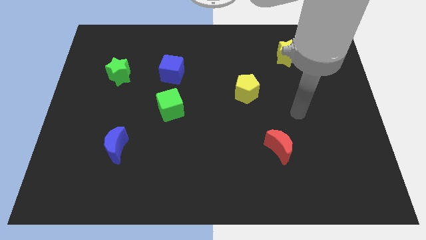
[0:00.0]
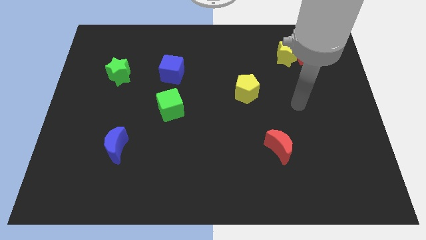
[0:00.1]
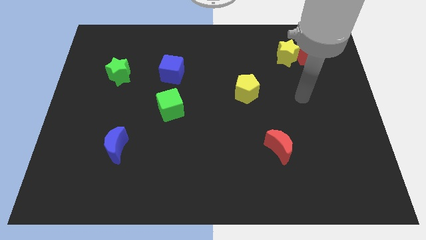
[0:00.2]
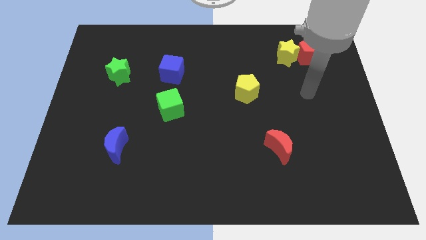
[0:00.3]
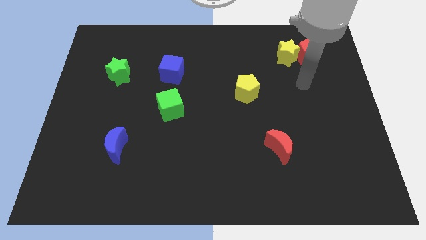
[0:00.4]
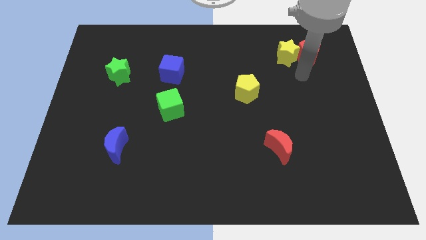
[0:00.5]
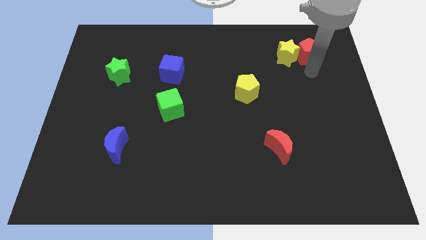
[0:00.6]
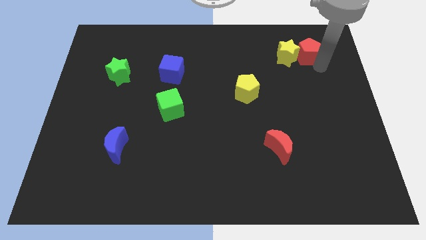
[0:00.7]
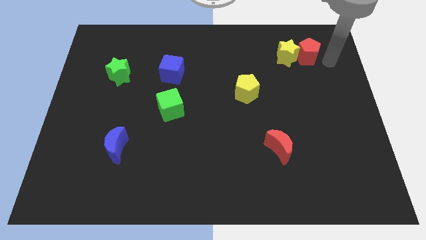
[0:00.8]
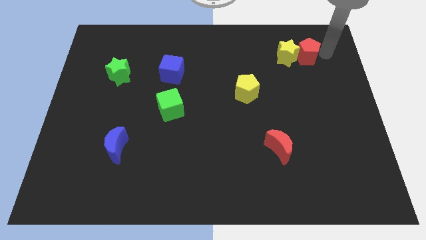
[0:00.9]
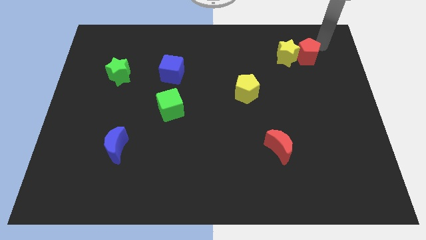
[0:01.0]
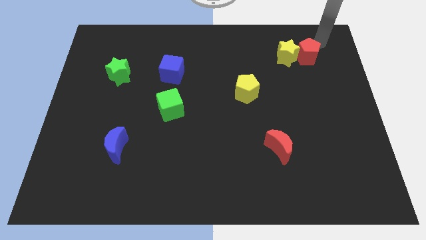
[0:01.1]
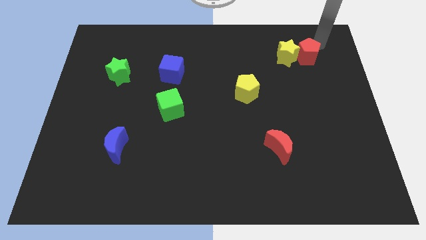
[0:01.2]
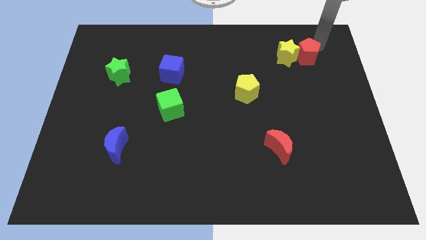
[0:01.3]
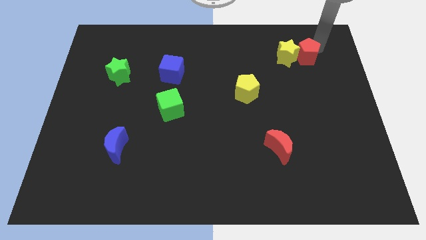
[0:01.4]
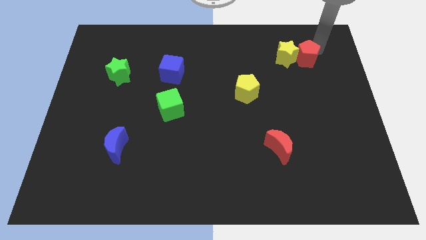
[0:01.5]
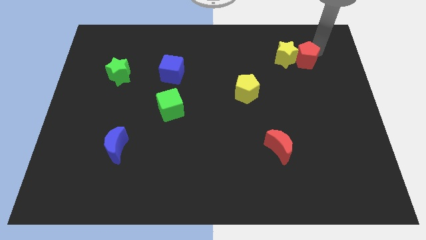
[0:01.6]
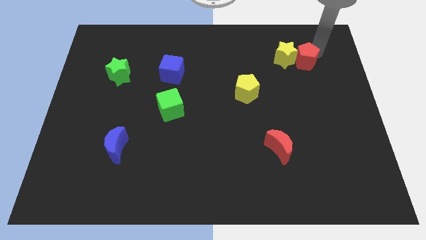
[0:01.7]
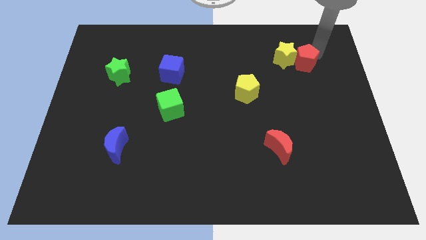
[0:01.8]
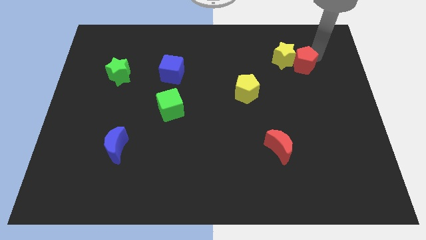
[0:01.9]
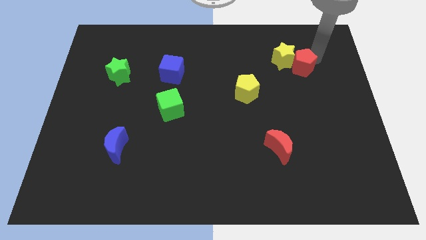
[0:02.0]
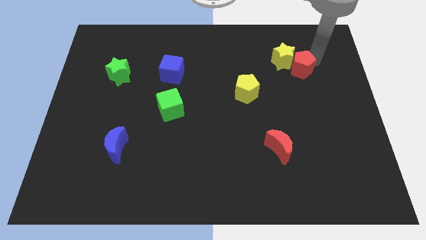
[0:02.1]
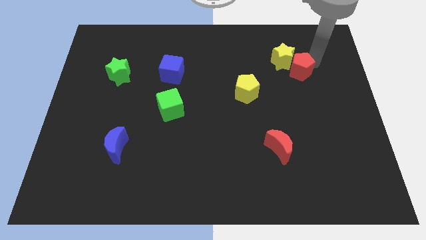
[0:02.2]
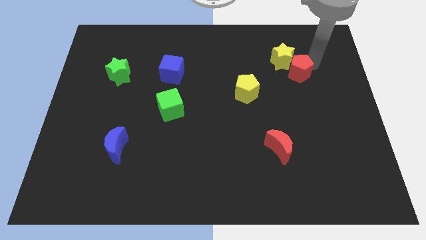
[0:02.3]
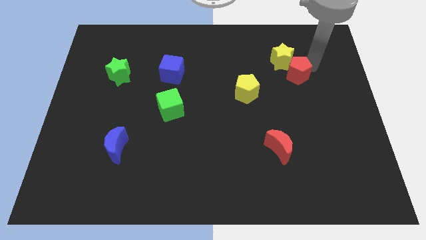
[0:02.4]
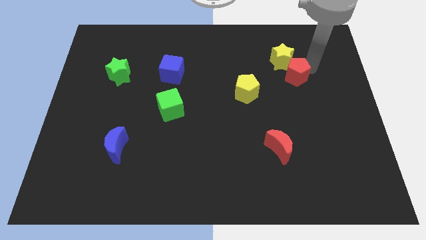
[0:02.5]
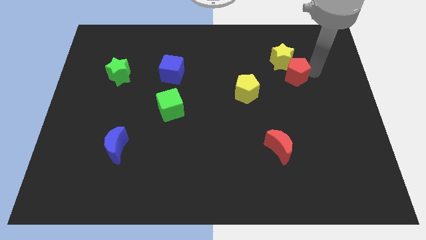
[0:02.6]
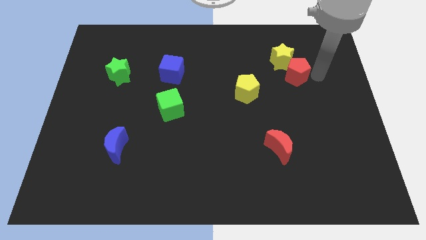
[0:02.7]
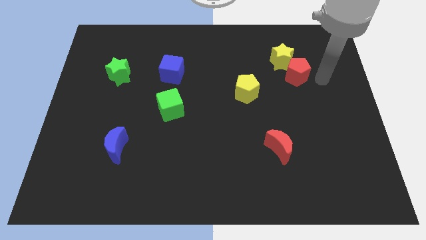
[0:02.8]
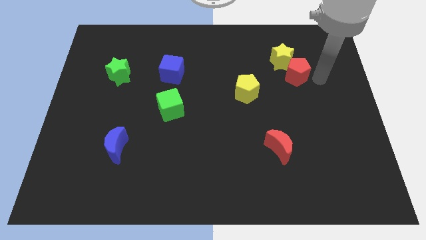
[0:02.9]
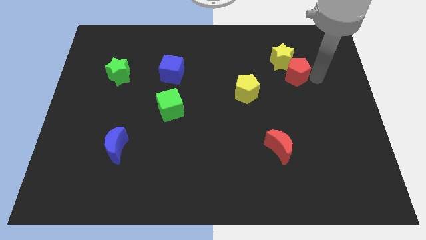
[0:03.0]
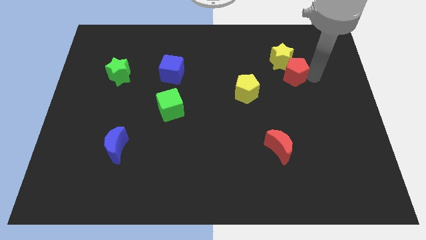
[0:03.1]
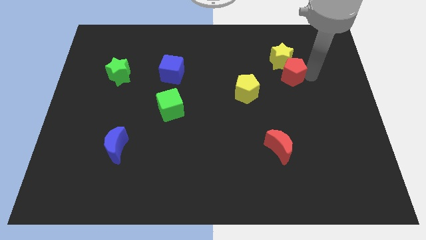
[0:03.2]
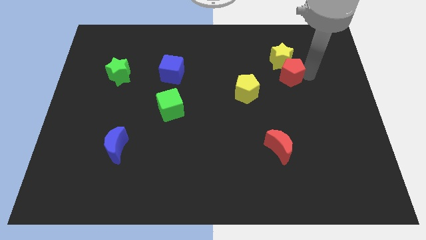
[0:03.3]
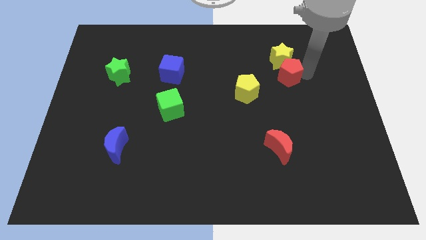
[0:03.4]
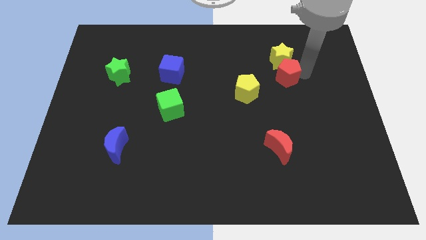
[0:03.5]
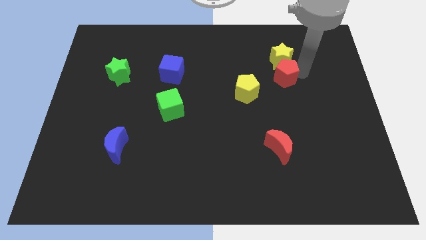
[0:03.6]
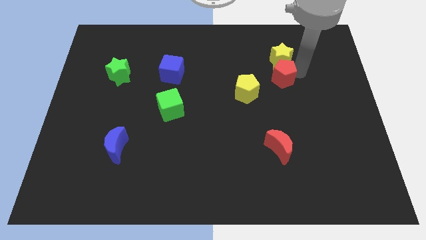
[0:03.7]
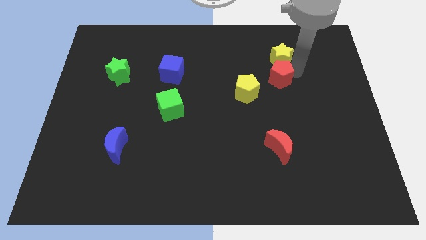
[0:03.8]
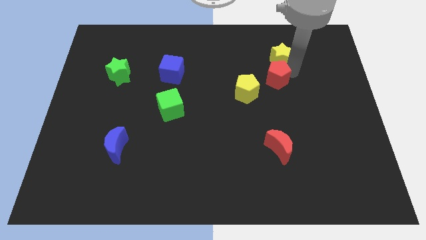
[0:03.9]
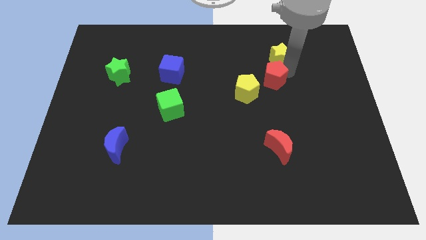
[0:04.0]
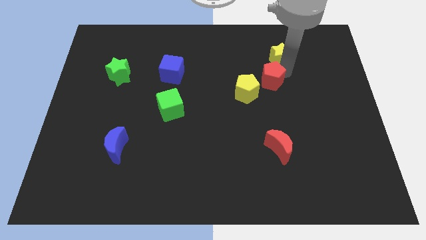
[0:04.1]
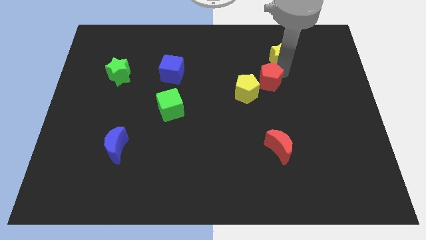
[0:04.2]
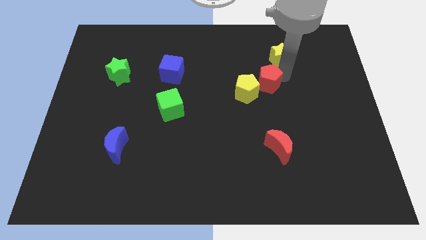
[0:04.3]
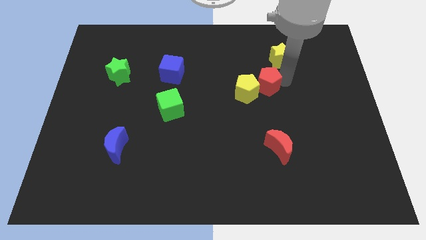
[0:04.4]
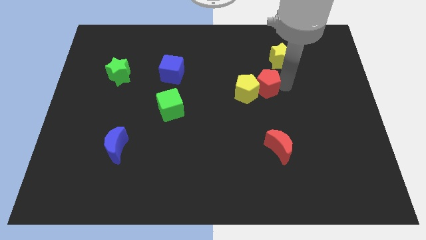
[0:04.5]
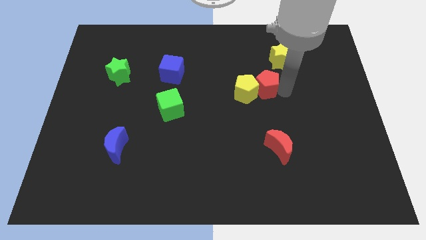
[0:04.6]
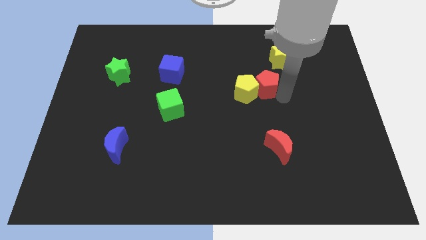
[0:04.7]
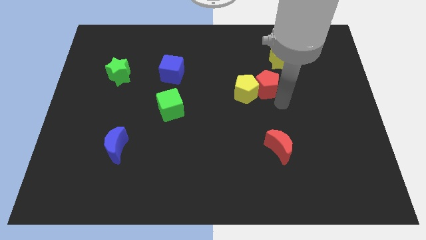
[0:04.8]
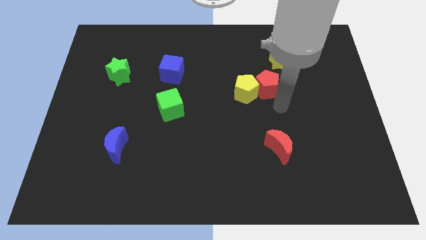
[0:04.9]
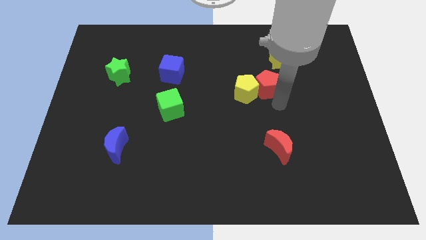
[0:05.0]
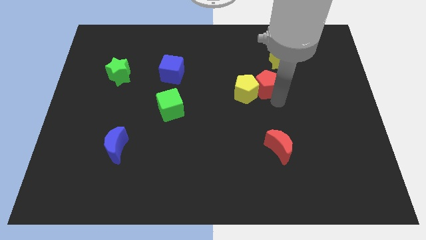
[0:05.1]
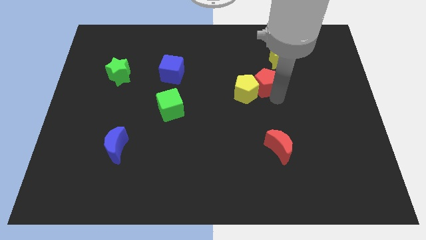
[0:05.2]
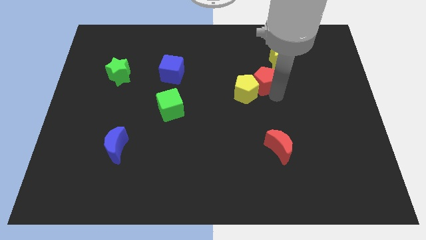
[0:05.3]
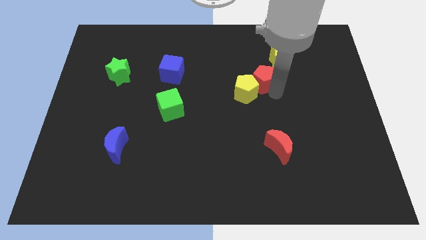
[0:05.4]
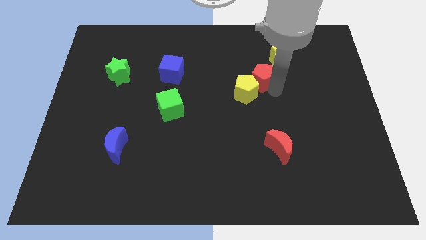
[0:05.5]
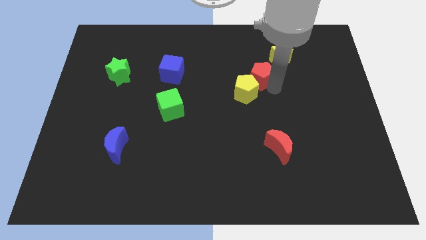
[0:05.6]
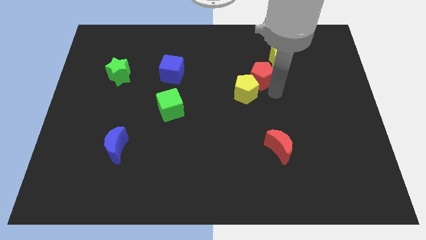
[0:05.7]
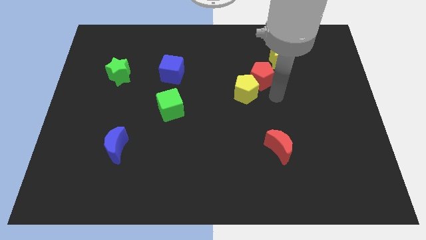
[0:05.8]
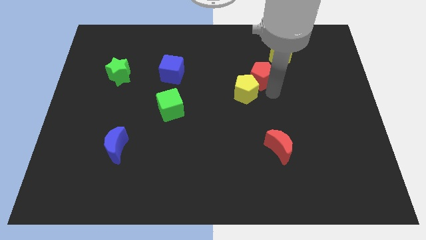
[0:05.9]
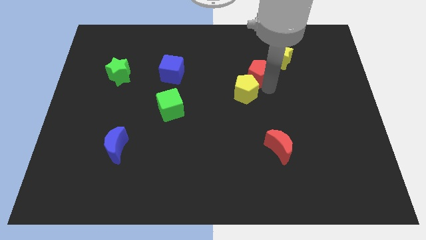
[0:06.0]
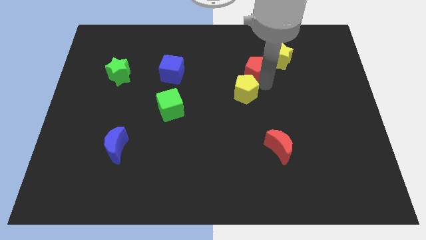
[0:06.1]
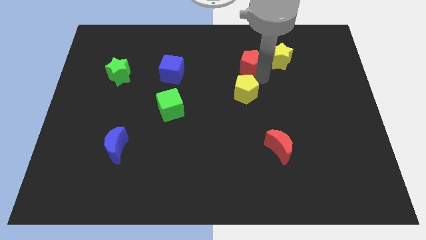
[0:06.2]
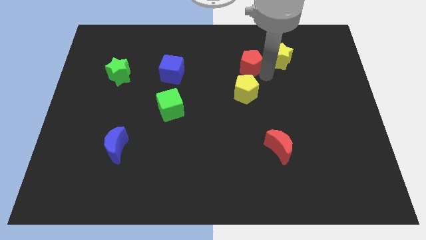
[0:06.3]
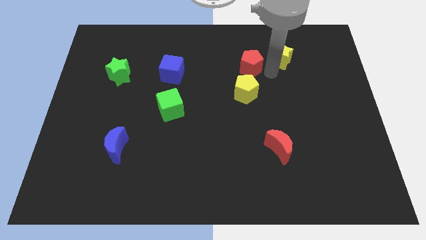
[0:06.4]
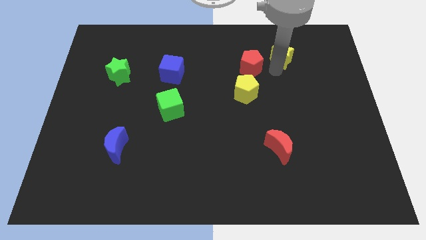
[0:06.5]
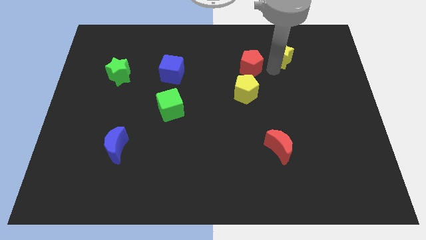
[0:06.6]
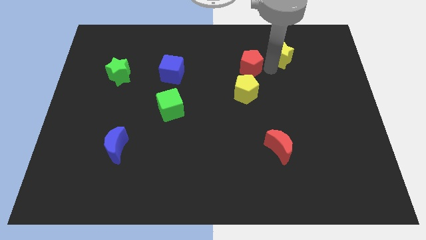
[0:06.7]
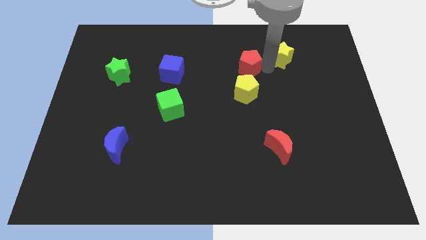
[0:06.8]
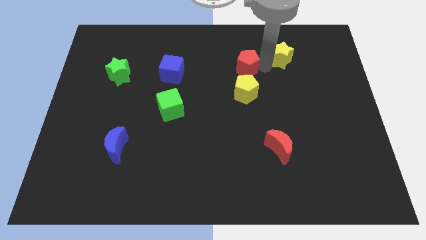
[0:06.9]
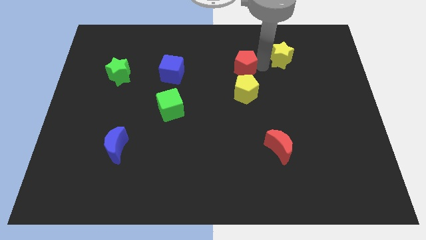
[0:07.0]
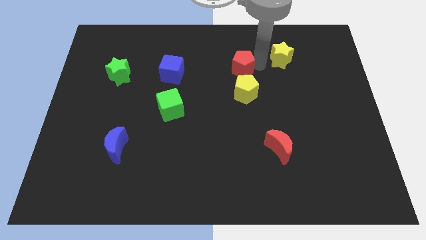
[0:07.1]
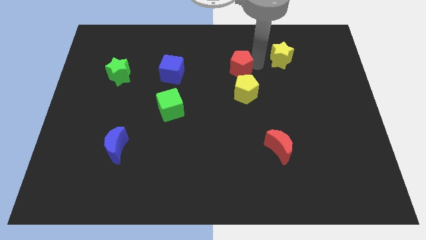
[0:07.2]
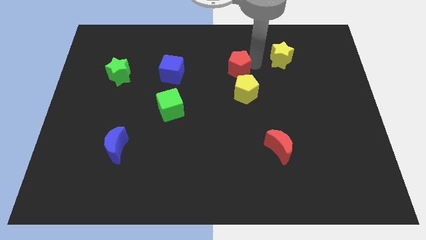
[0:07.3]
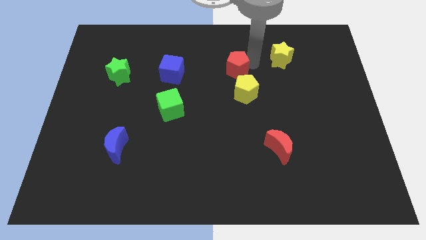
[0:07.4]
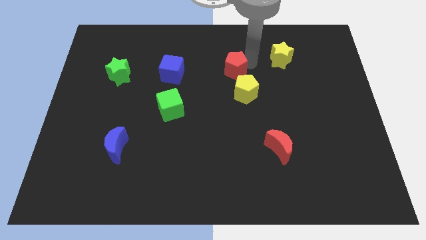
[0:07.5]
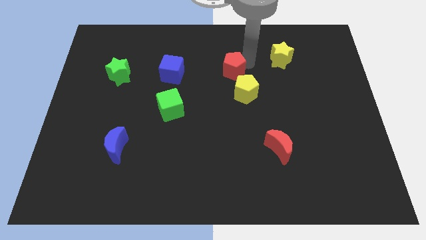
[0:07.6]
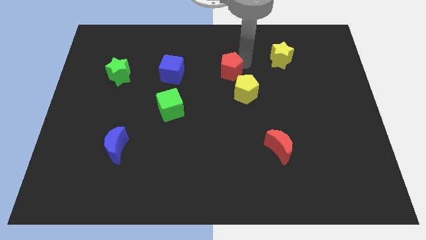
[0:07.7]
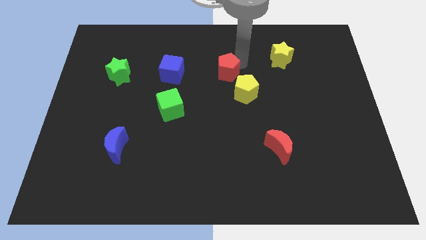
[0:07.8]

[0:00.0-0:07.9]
push the red pentagon left

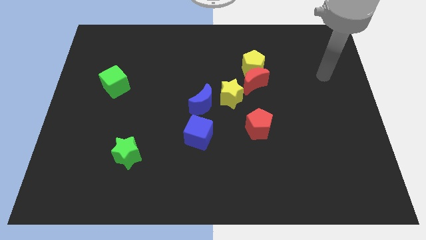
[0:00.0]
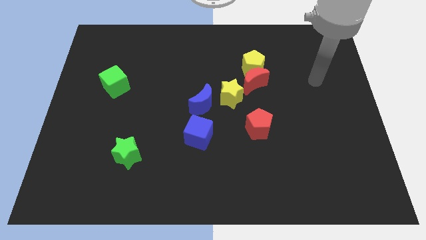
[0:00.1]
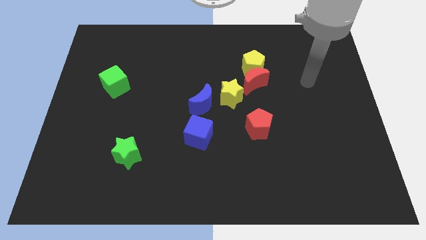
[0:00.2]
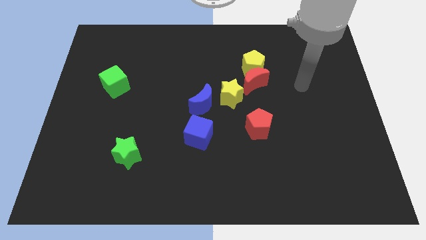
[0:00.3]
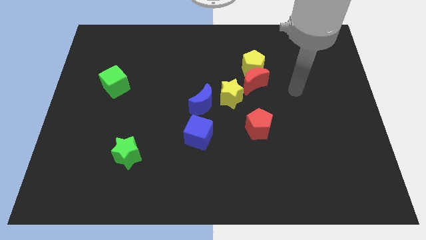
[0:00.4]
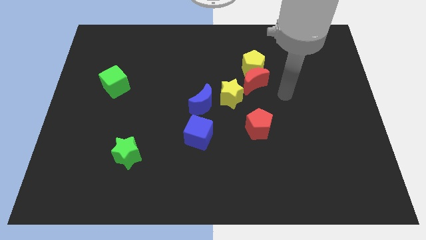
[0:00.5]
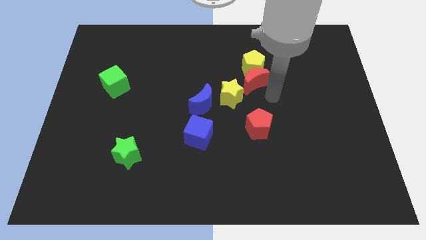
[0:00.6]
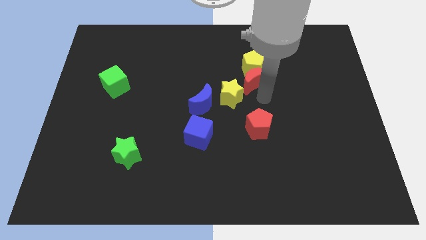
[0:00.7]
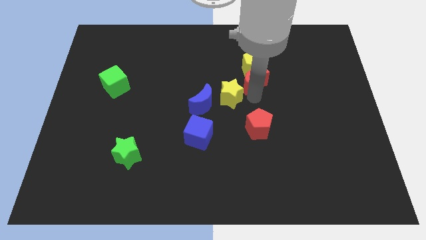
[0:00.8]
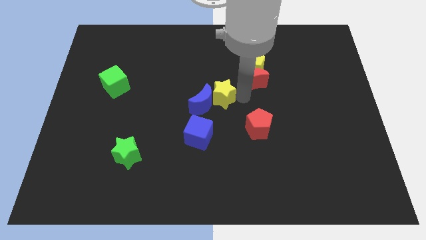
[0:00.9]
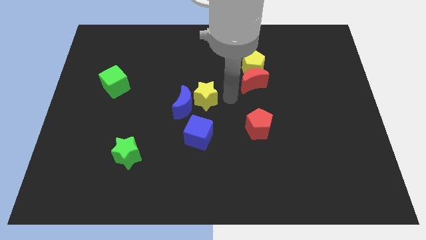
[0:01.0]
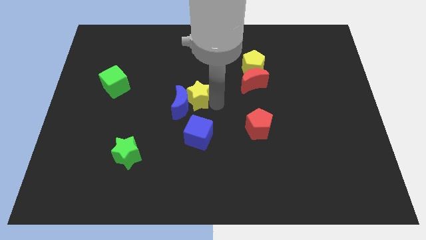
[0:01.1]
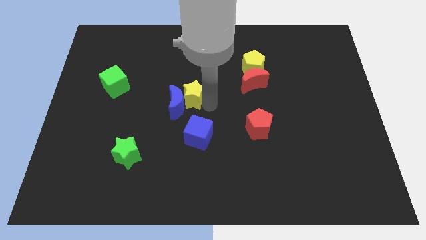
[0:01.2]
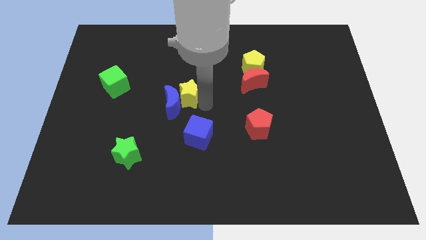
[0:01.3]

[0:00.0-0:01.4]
slide the blue moon to the left slightly
